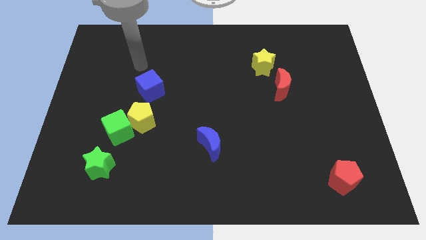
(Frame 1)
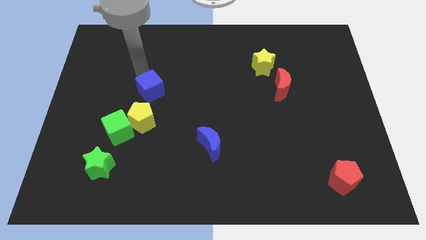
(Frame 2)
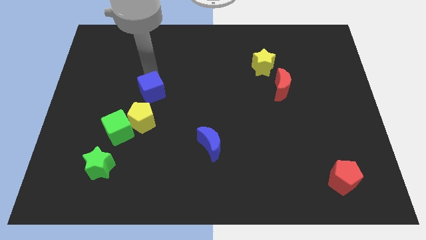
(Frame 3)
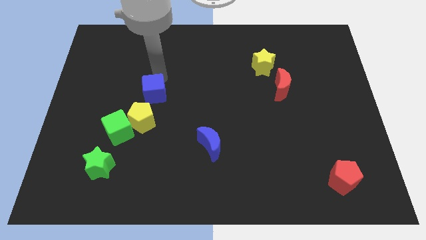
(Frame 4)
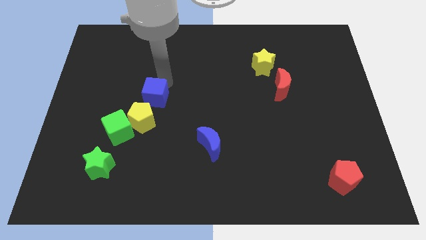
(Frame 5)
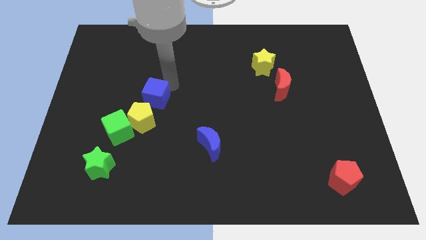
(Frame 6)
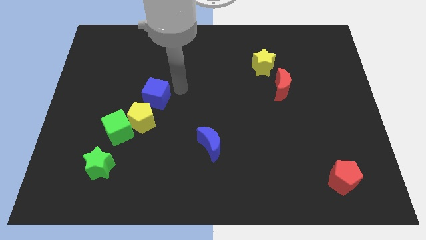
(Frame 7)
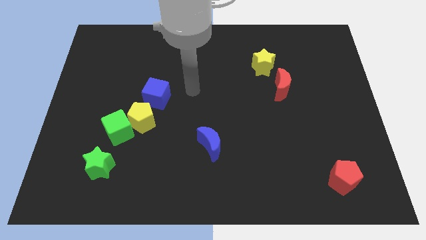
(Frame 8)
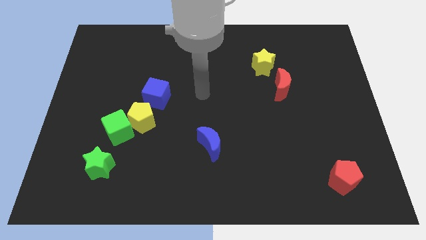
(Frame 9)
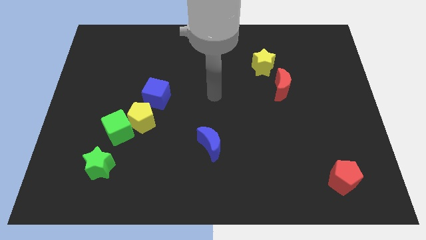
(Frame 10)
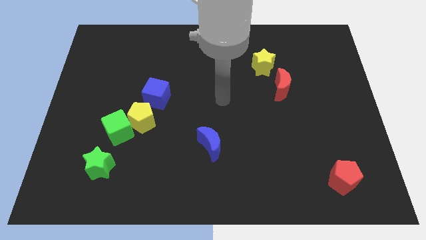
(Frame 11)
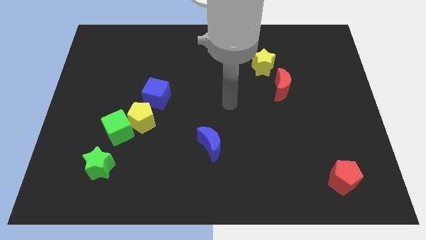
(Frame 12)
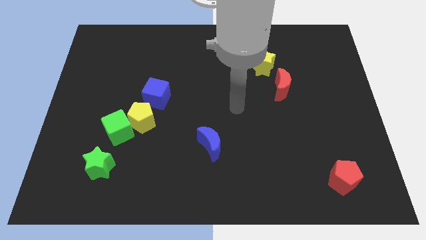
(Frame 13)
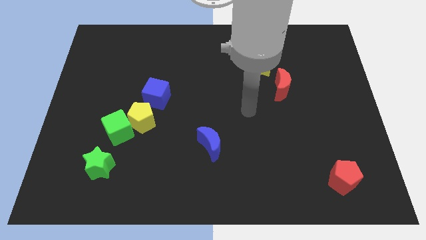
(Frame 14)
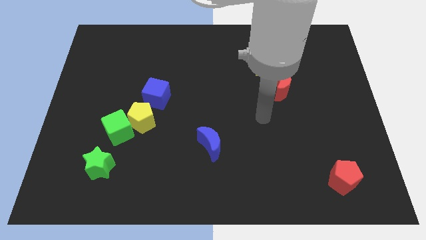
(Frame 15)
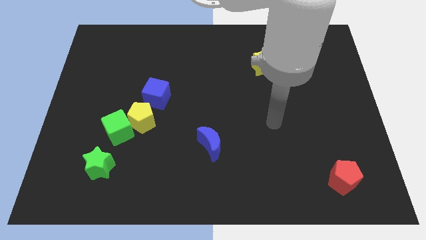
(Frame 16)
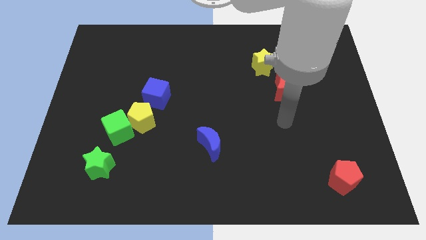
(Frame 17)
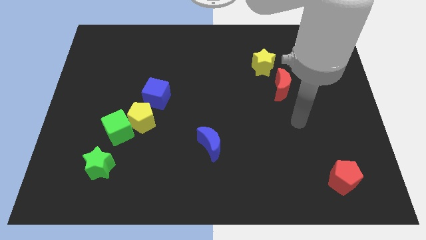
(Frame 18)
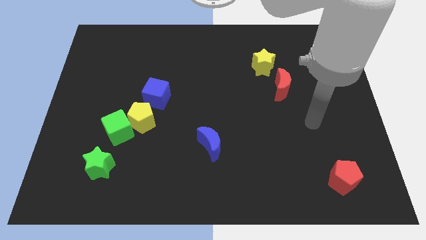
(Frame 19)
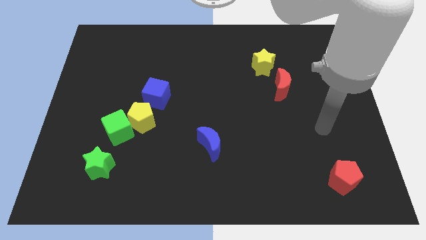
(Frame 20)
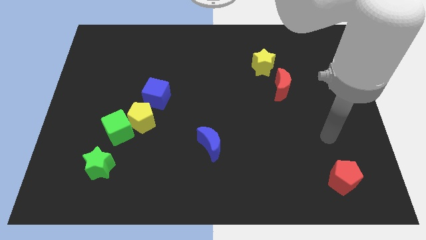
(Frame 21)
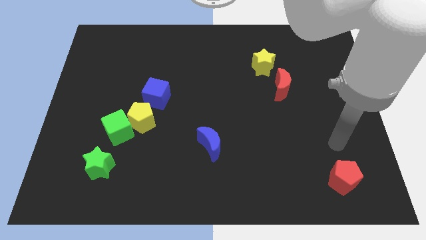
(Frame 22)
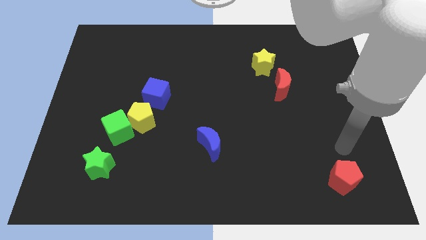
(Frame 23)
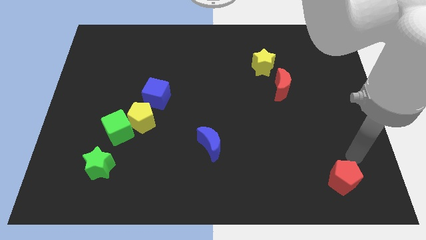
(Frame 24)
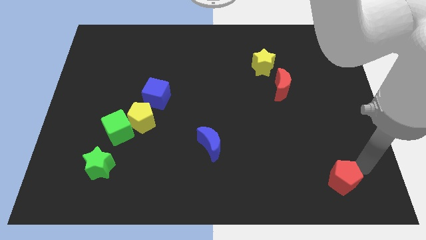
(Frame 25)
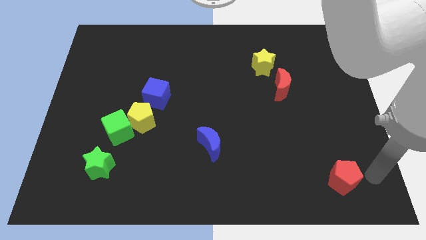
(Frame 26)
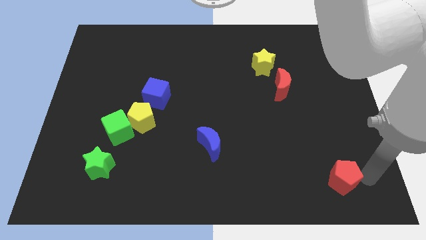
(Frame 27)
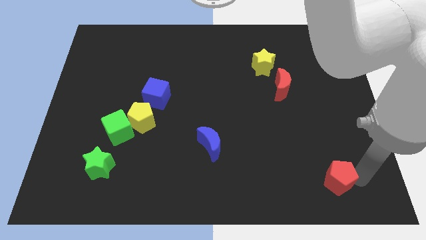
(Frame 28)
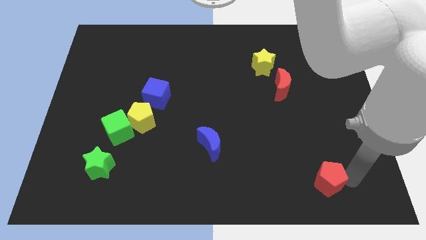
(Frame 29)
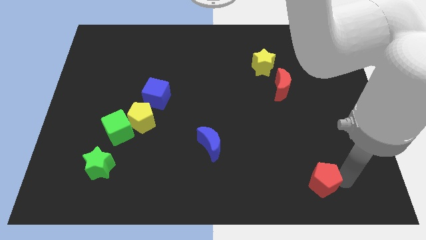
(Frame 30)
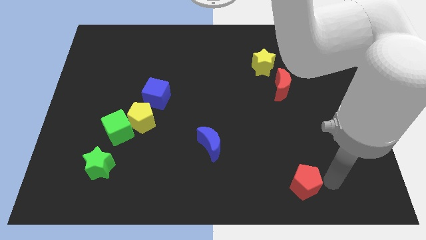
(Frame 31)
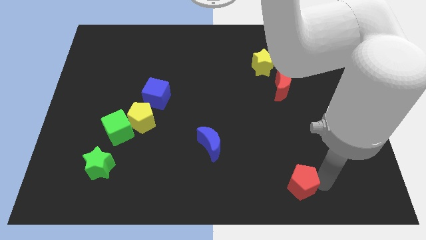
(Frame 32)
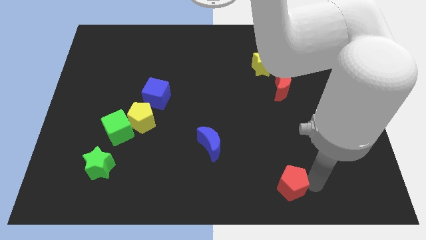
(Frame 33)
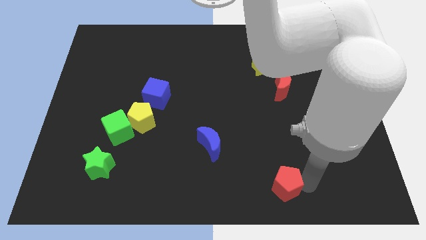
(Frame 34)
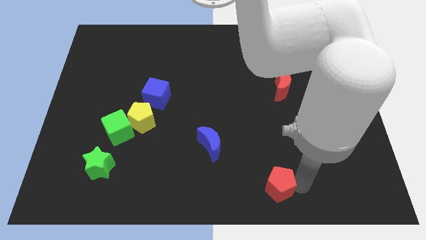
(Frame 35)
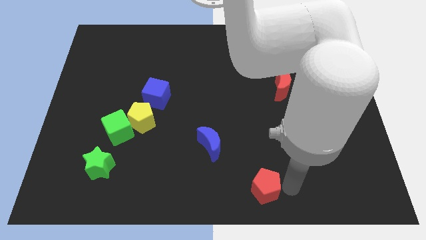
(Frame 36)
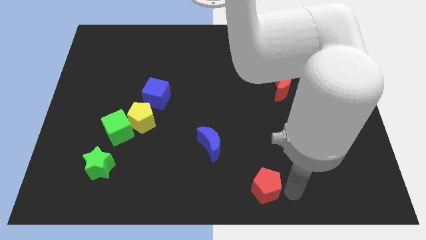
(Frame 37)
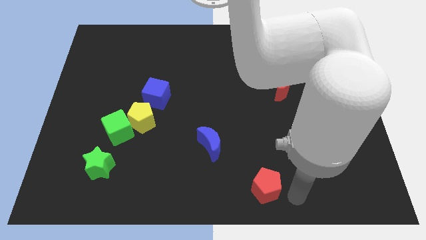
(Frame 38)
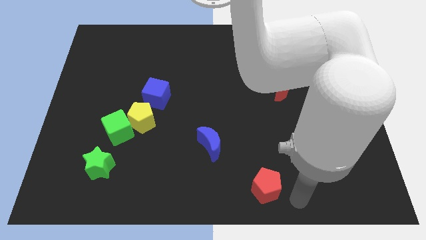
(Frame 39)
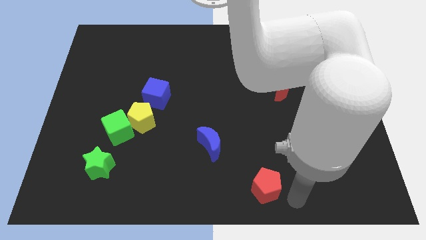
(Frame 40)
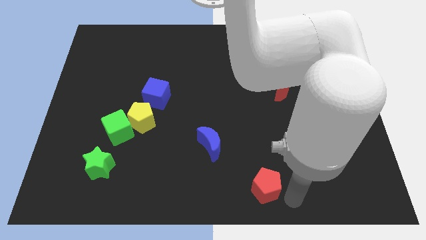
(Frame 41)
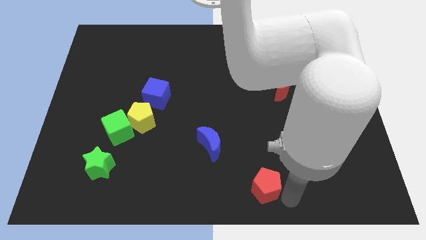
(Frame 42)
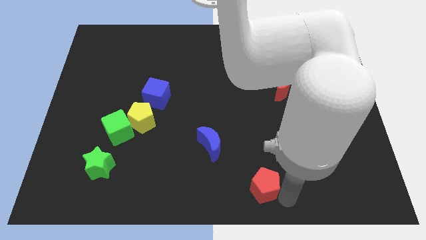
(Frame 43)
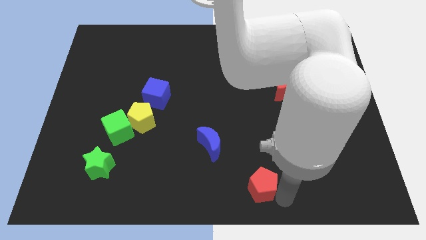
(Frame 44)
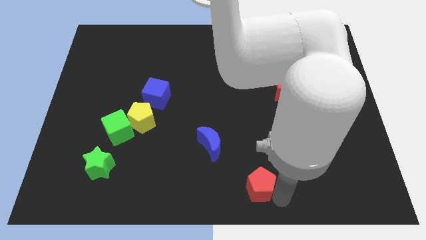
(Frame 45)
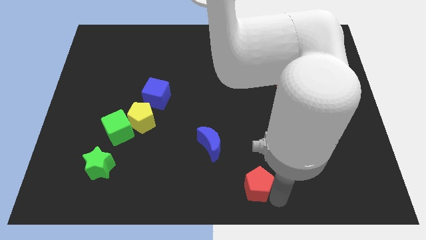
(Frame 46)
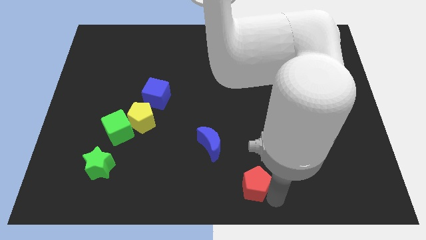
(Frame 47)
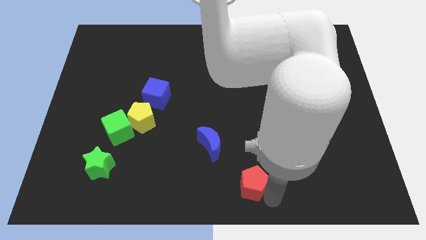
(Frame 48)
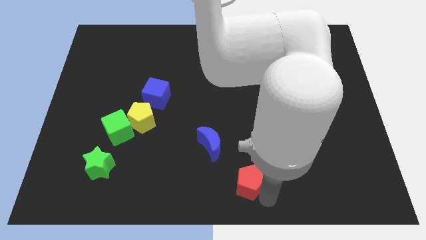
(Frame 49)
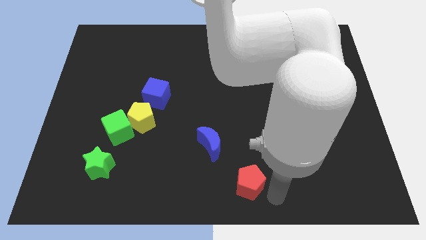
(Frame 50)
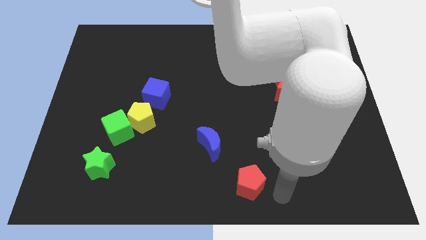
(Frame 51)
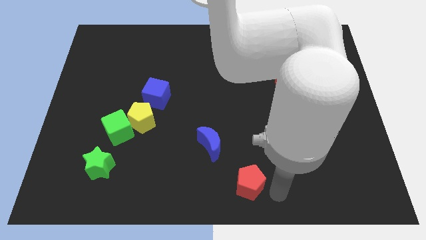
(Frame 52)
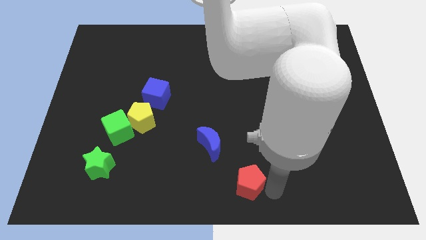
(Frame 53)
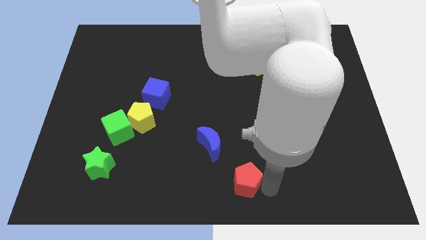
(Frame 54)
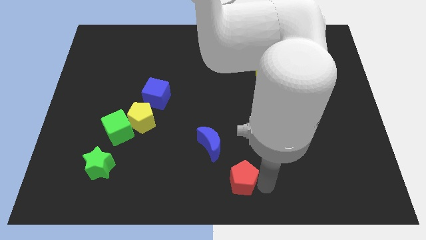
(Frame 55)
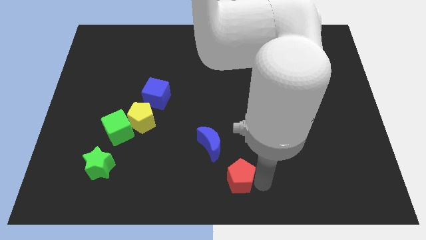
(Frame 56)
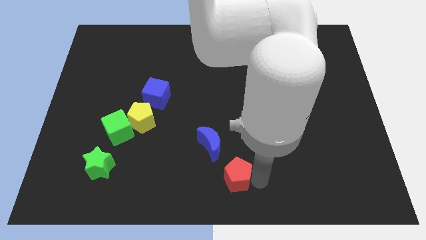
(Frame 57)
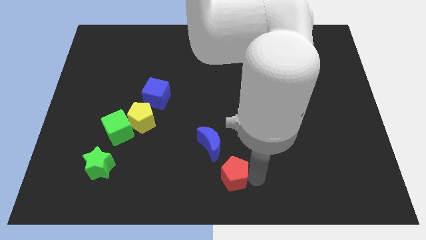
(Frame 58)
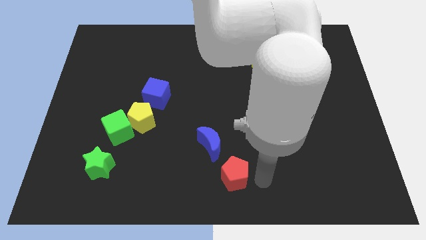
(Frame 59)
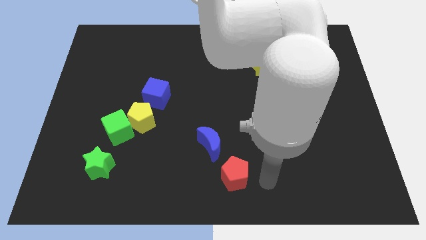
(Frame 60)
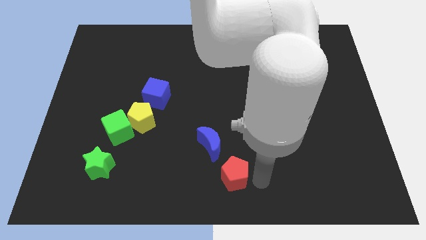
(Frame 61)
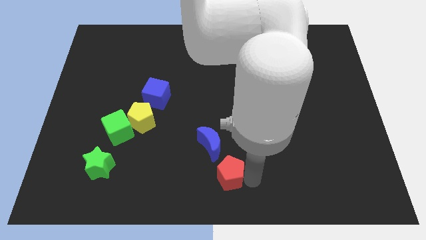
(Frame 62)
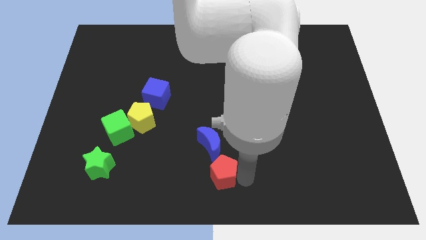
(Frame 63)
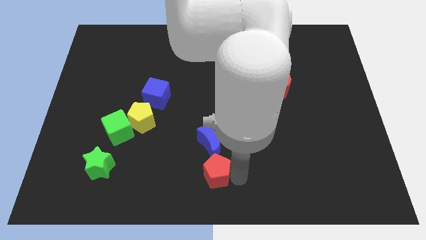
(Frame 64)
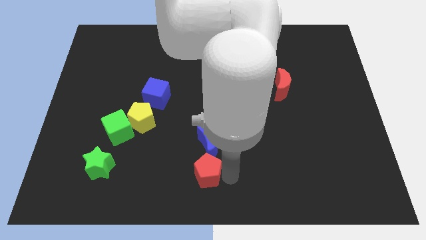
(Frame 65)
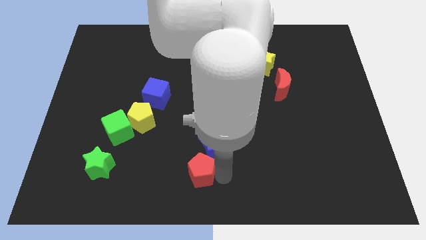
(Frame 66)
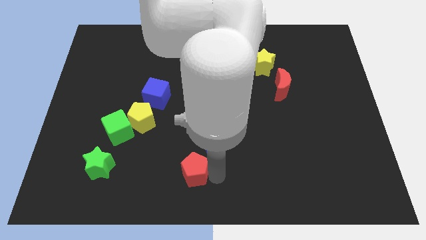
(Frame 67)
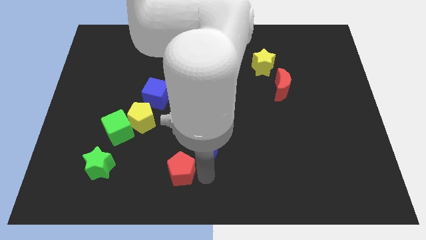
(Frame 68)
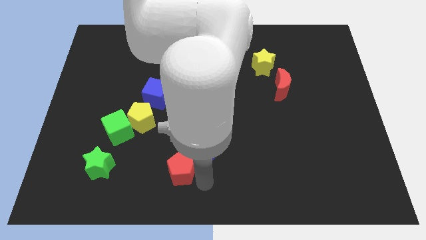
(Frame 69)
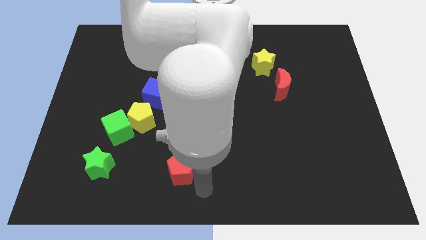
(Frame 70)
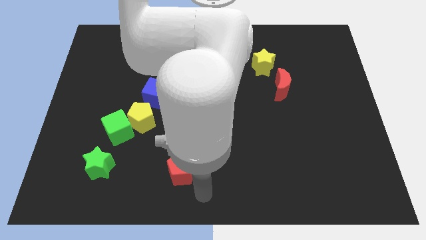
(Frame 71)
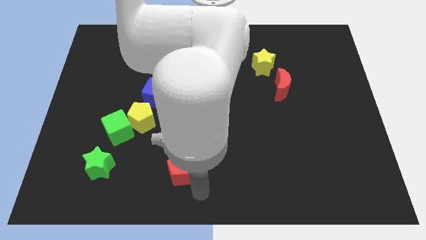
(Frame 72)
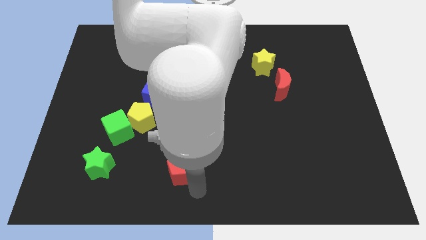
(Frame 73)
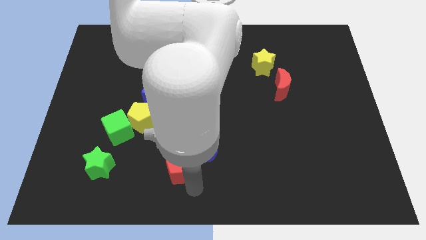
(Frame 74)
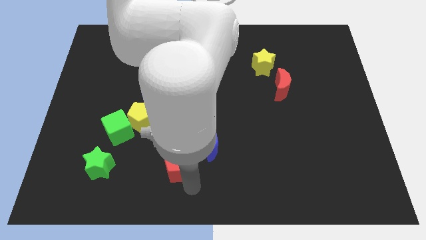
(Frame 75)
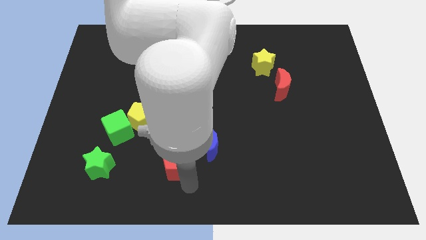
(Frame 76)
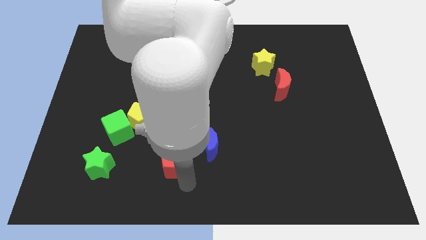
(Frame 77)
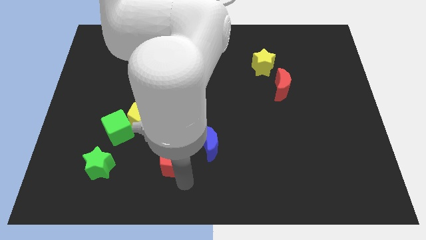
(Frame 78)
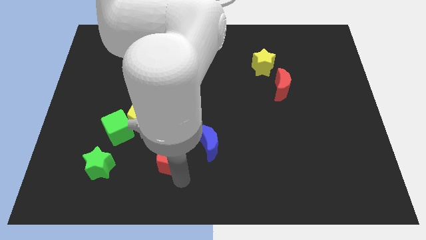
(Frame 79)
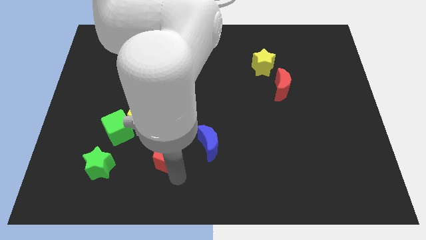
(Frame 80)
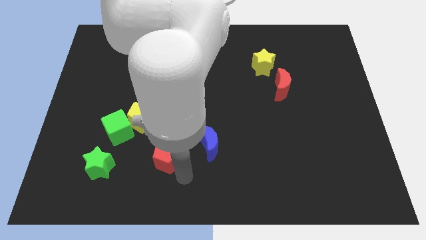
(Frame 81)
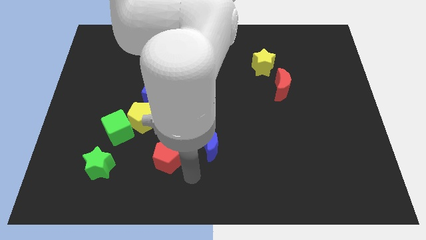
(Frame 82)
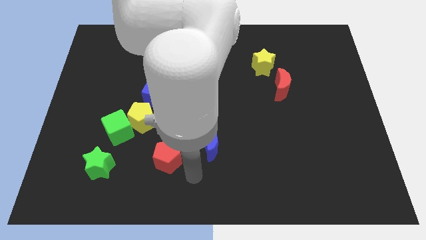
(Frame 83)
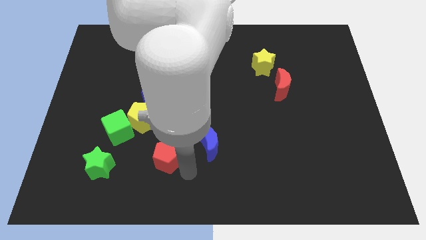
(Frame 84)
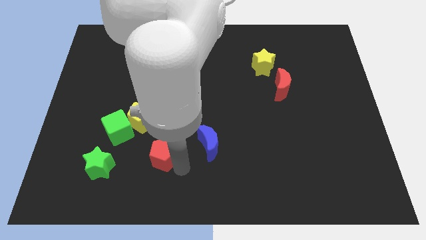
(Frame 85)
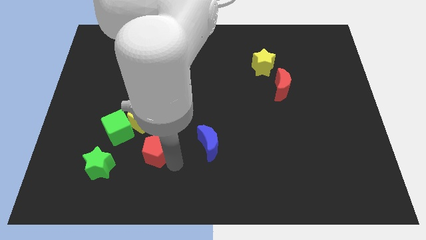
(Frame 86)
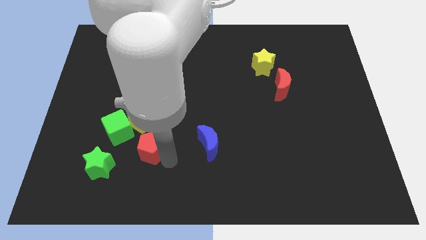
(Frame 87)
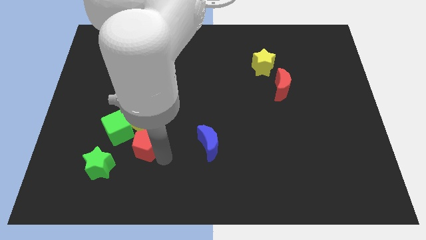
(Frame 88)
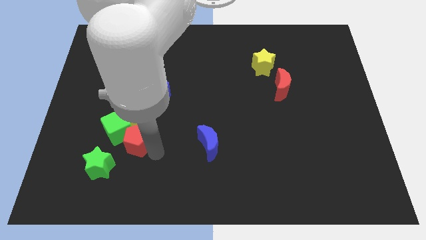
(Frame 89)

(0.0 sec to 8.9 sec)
slide the red pentagon to the green cube
